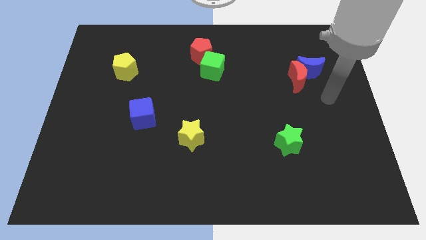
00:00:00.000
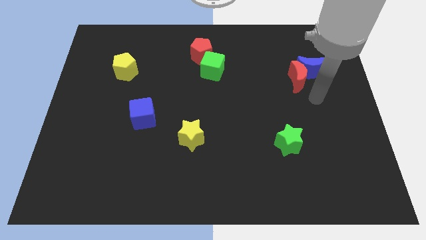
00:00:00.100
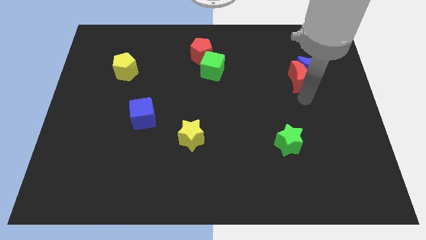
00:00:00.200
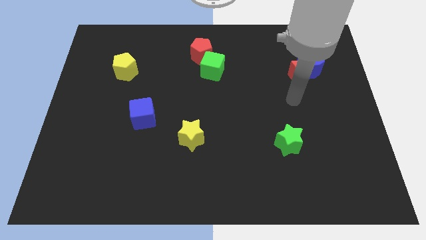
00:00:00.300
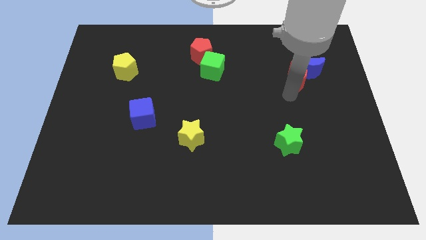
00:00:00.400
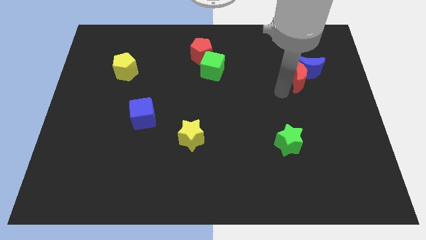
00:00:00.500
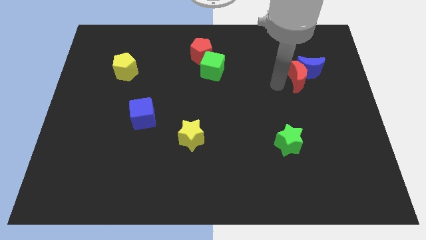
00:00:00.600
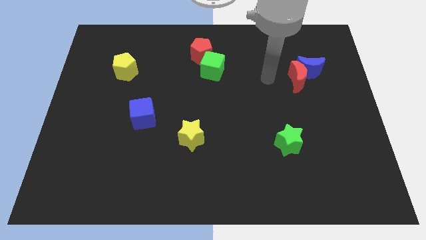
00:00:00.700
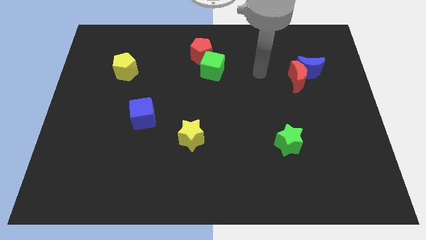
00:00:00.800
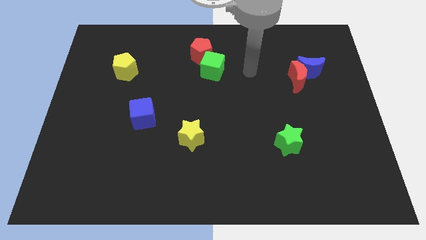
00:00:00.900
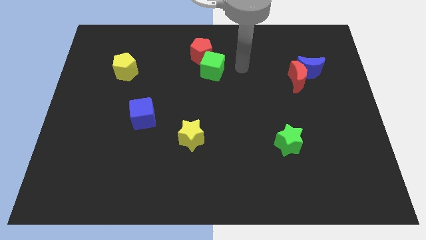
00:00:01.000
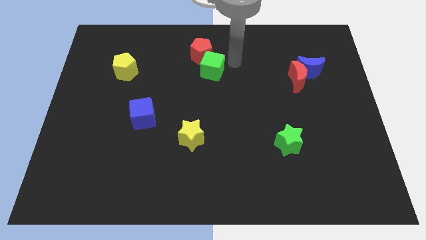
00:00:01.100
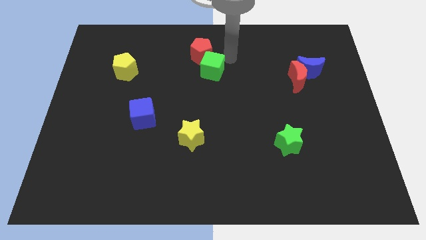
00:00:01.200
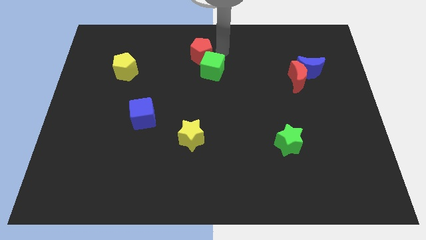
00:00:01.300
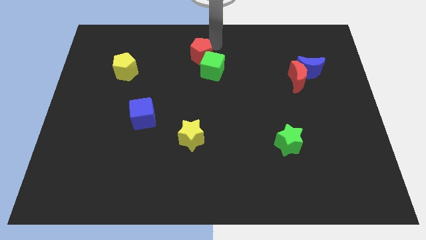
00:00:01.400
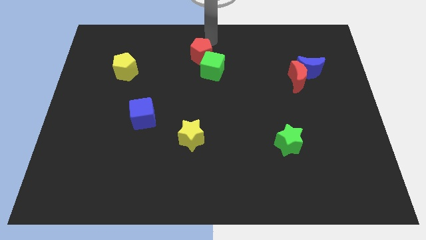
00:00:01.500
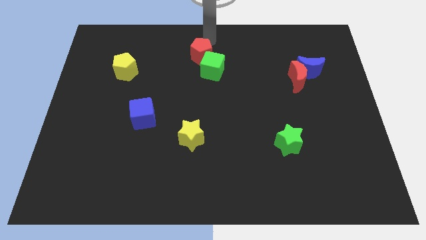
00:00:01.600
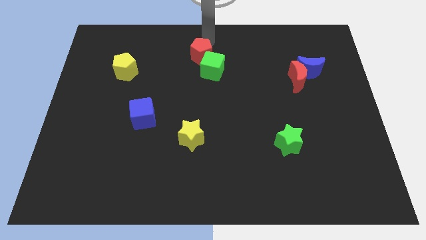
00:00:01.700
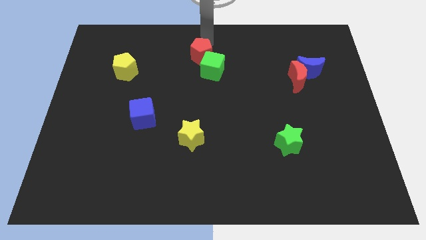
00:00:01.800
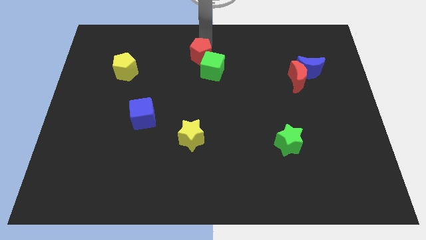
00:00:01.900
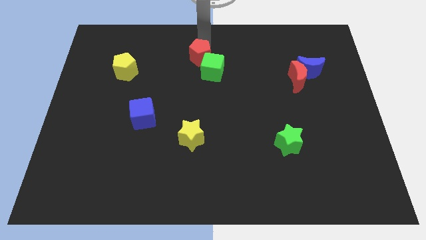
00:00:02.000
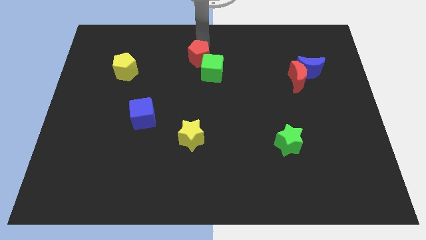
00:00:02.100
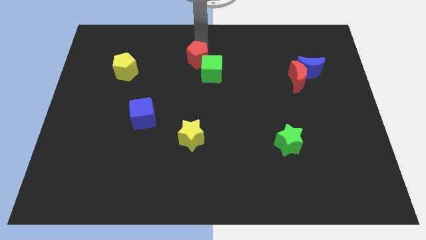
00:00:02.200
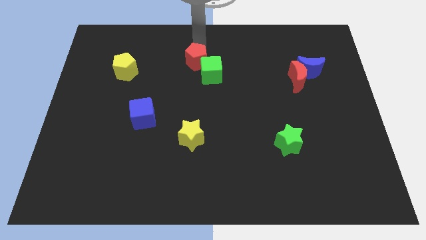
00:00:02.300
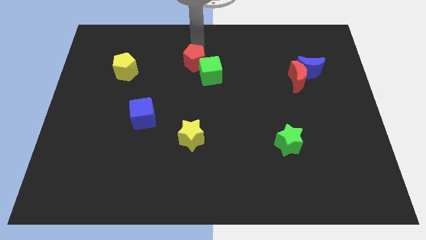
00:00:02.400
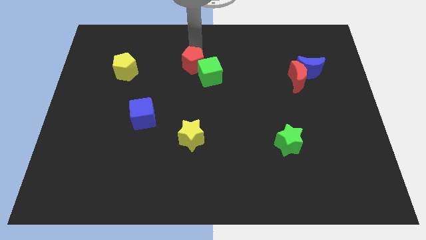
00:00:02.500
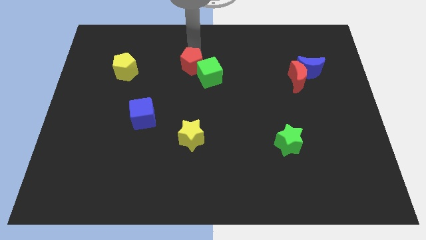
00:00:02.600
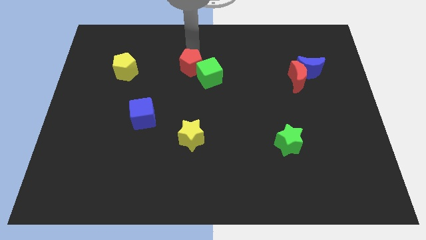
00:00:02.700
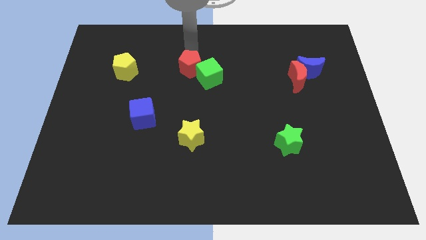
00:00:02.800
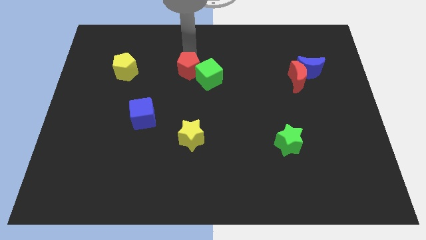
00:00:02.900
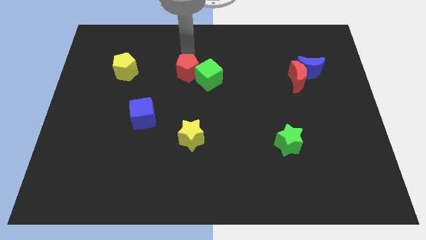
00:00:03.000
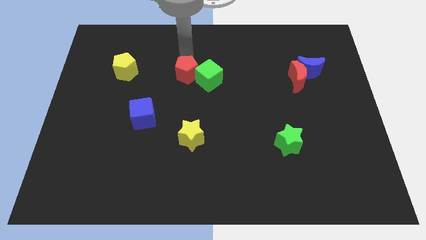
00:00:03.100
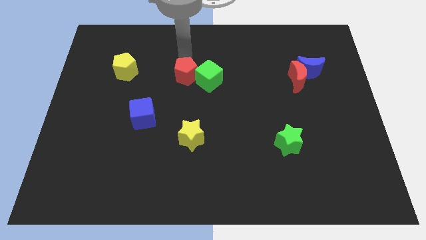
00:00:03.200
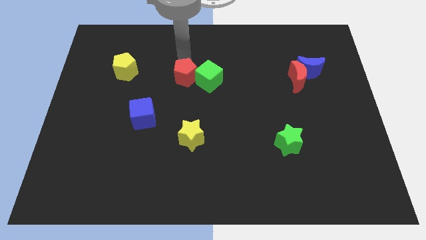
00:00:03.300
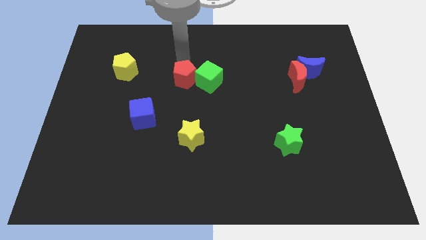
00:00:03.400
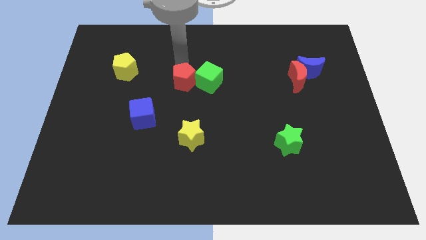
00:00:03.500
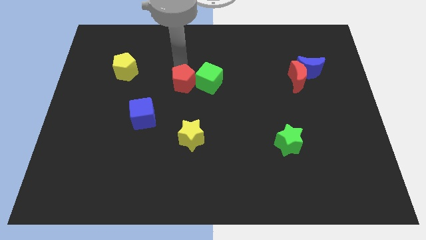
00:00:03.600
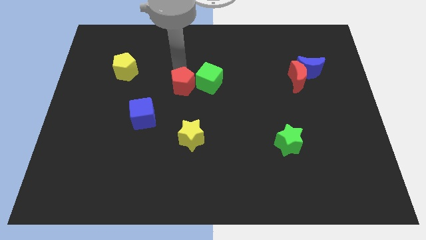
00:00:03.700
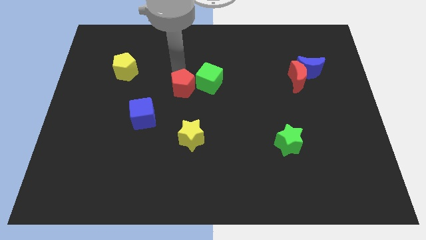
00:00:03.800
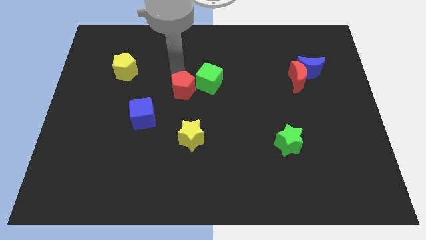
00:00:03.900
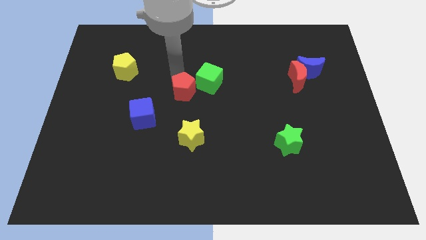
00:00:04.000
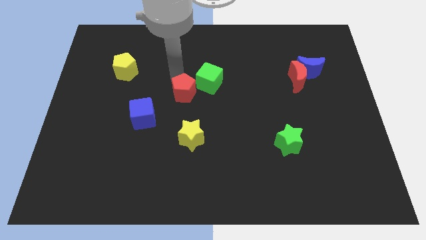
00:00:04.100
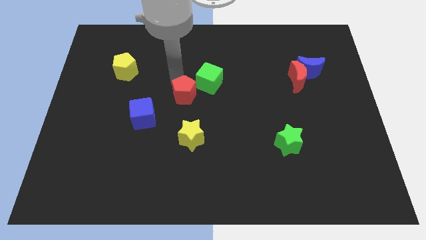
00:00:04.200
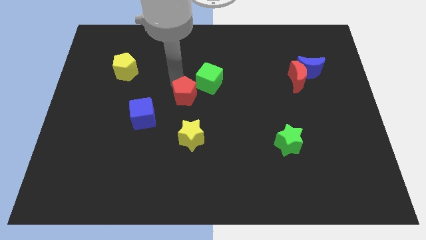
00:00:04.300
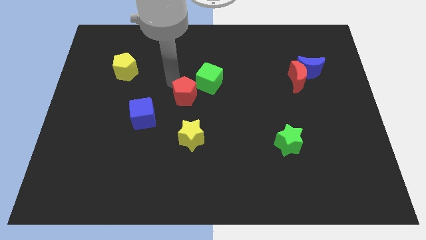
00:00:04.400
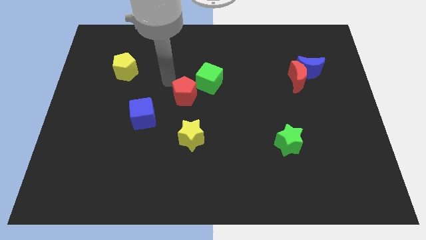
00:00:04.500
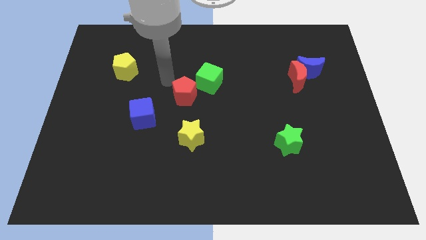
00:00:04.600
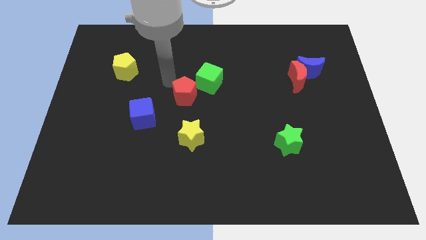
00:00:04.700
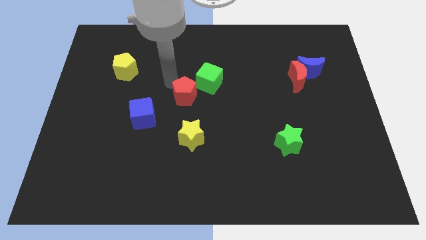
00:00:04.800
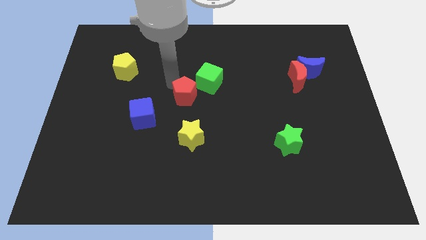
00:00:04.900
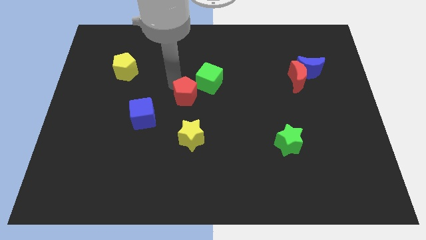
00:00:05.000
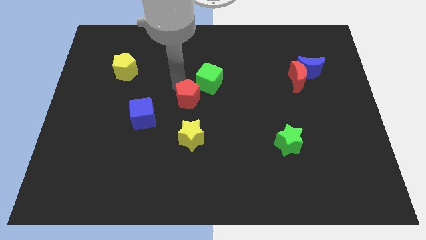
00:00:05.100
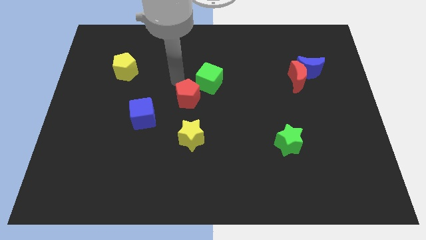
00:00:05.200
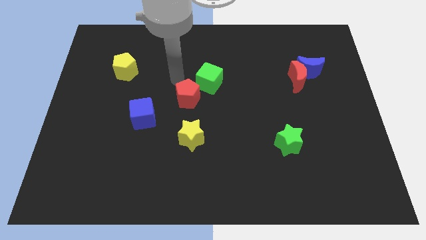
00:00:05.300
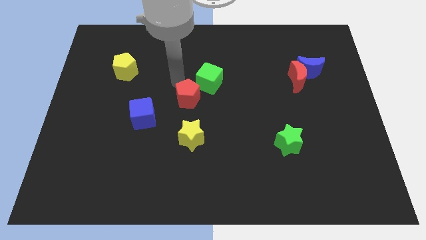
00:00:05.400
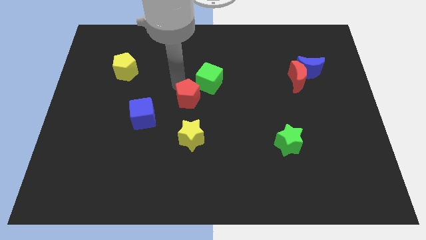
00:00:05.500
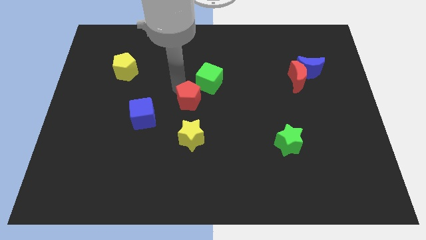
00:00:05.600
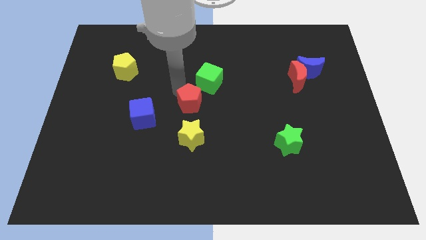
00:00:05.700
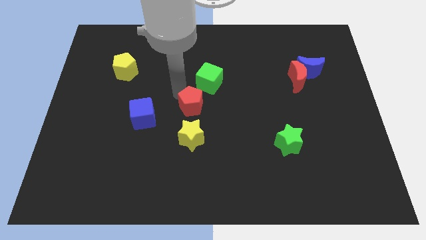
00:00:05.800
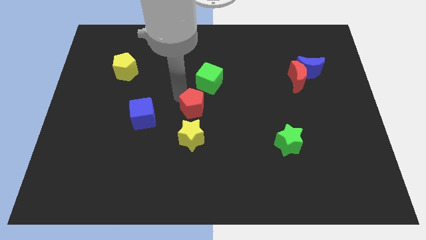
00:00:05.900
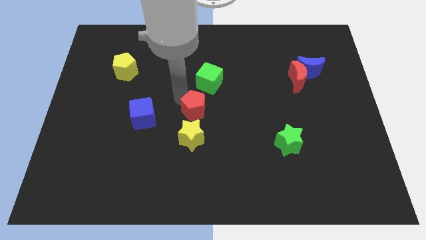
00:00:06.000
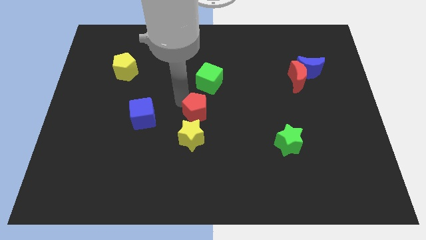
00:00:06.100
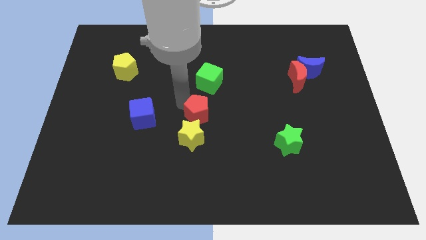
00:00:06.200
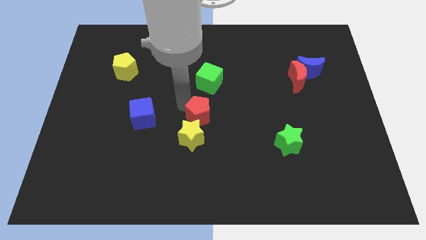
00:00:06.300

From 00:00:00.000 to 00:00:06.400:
move the red pentagon down

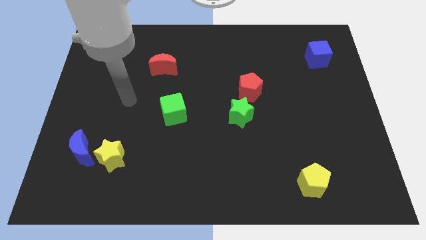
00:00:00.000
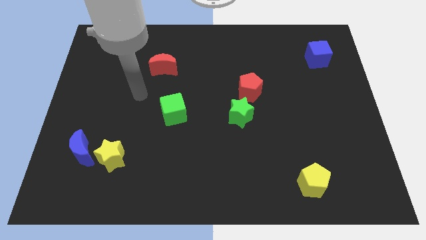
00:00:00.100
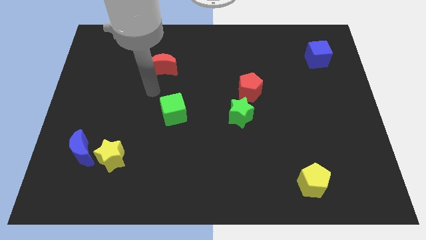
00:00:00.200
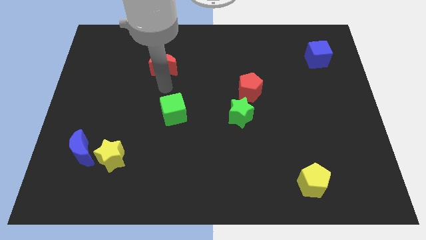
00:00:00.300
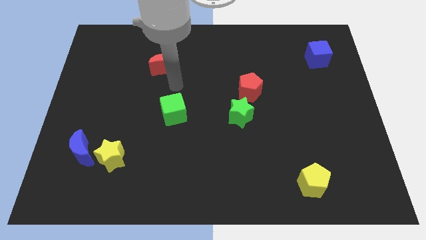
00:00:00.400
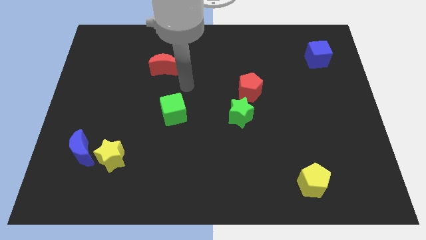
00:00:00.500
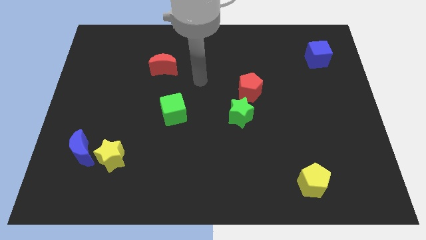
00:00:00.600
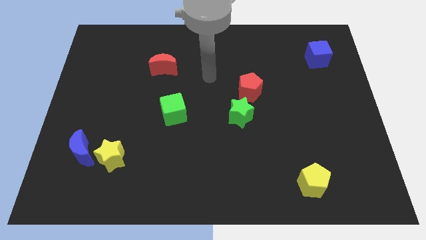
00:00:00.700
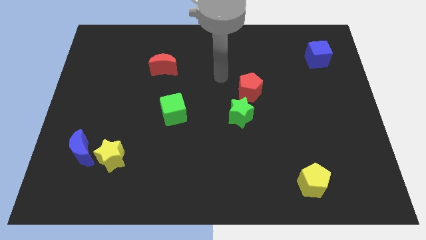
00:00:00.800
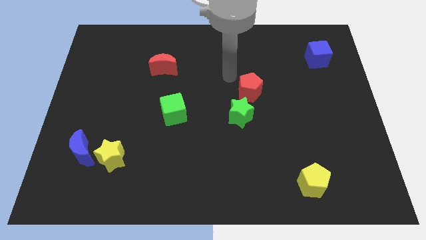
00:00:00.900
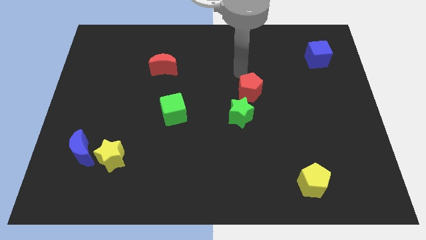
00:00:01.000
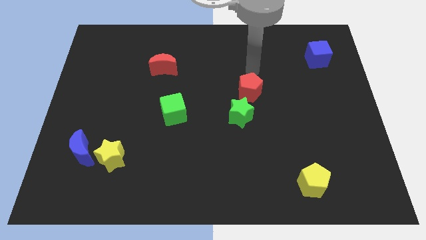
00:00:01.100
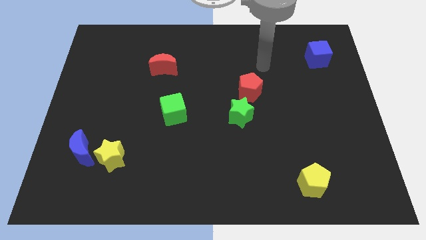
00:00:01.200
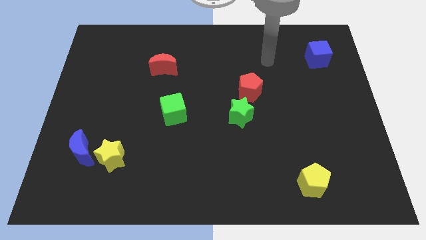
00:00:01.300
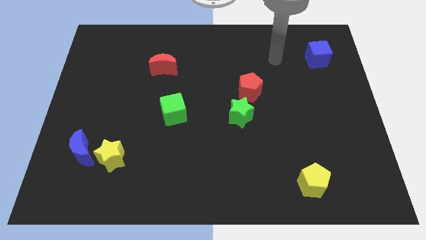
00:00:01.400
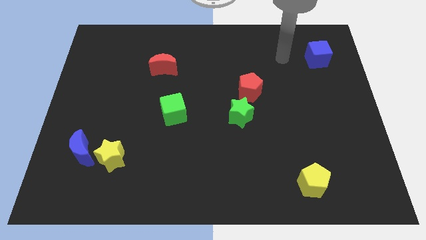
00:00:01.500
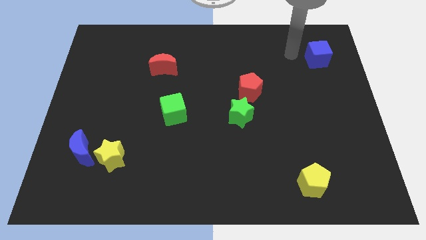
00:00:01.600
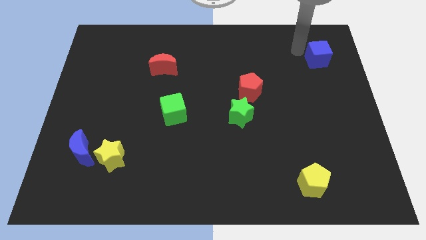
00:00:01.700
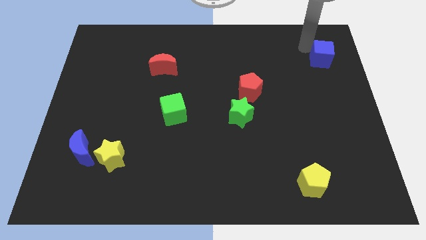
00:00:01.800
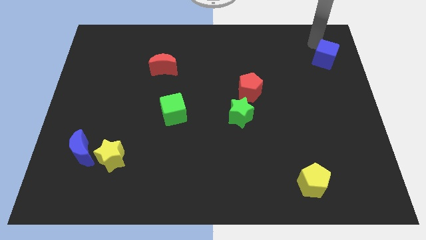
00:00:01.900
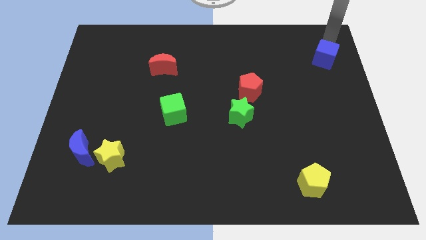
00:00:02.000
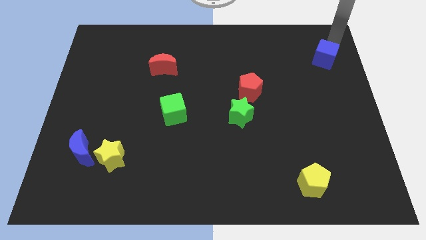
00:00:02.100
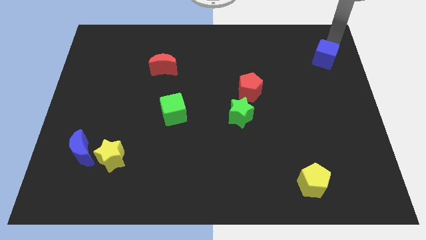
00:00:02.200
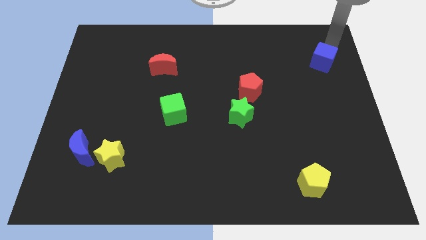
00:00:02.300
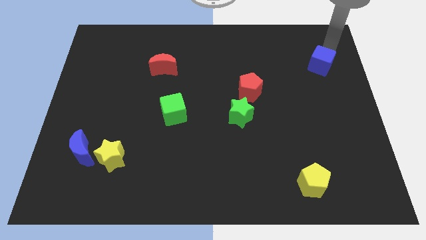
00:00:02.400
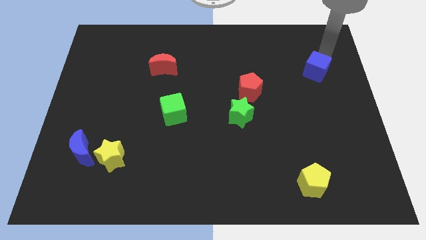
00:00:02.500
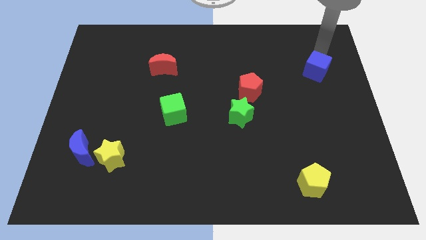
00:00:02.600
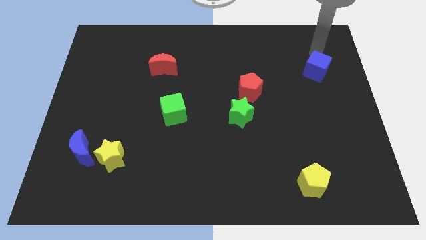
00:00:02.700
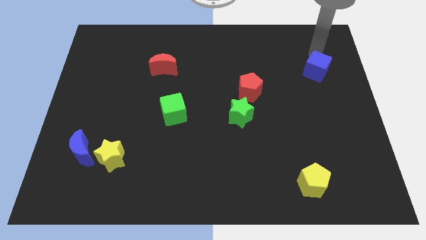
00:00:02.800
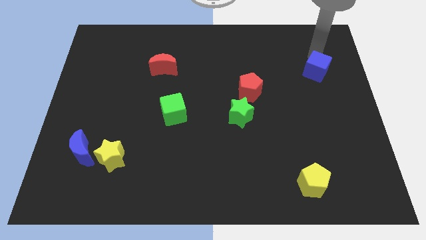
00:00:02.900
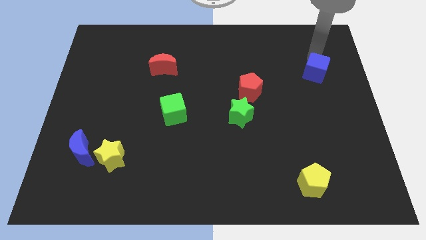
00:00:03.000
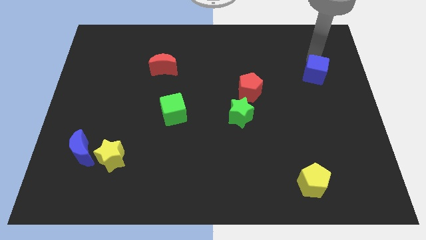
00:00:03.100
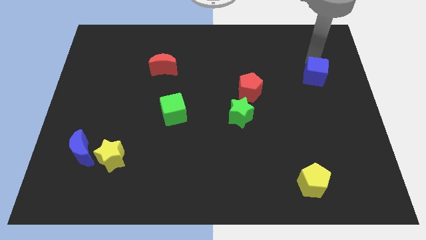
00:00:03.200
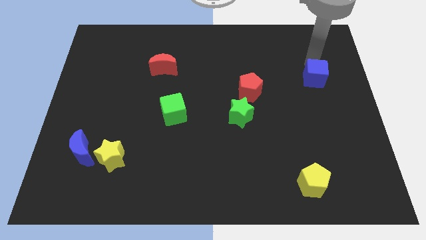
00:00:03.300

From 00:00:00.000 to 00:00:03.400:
move the blue cube downwards a bit
